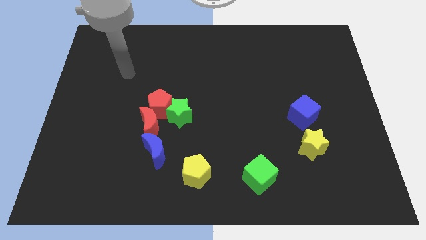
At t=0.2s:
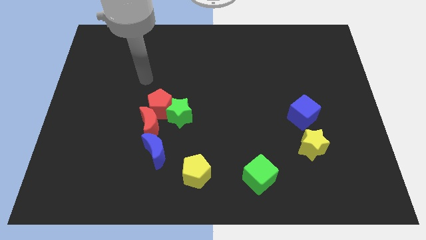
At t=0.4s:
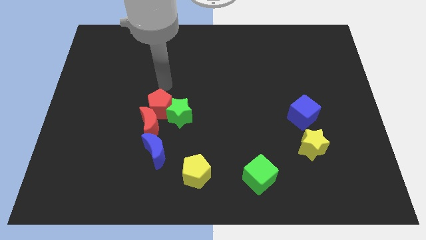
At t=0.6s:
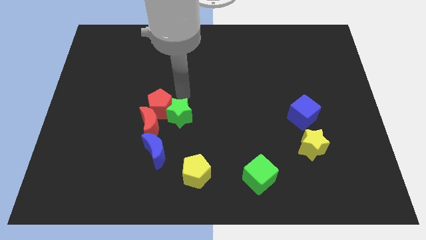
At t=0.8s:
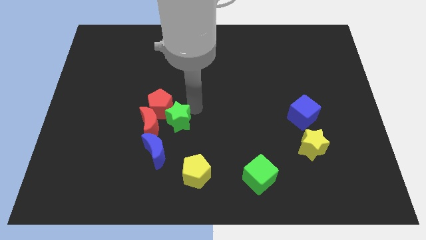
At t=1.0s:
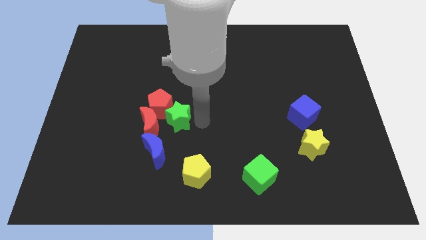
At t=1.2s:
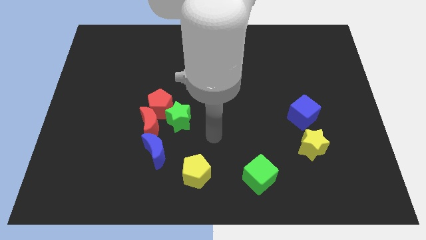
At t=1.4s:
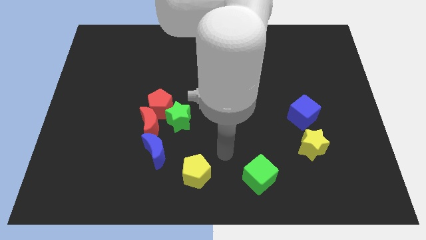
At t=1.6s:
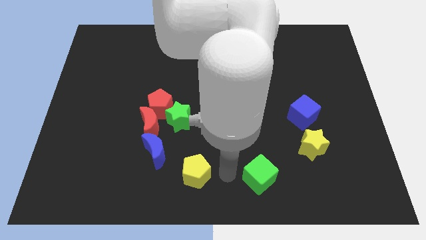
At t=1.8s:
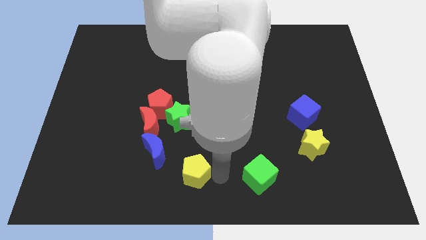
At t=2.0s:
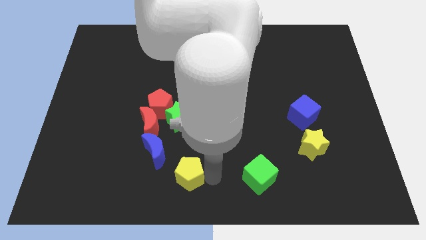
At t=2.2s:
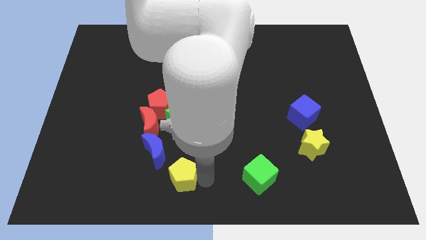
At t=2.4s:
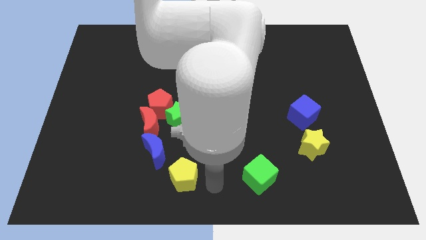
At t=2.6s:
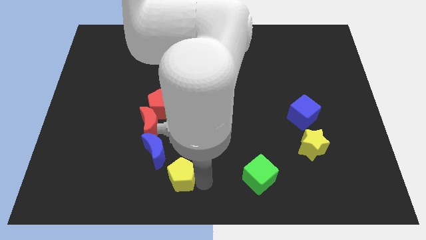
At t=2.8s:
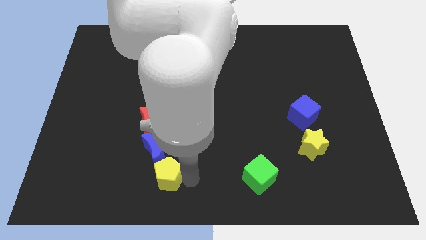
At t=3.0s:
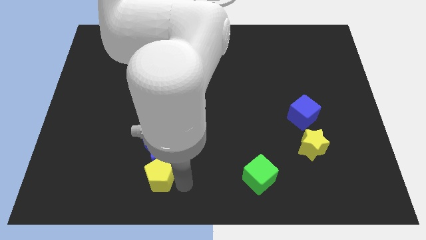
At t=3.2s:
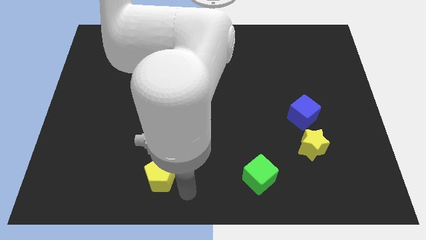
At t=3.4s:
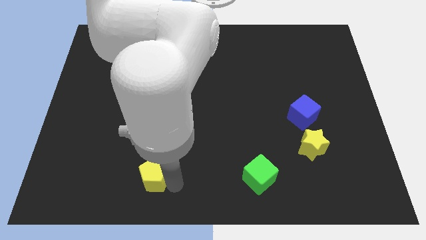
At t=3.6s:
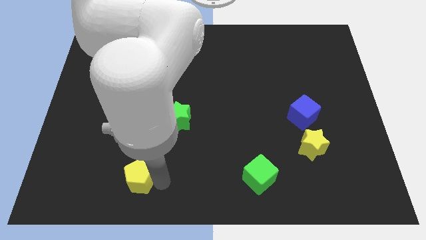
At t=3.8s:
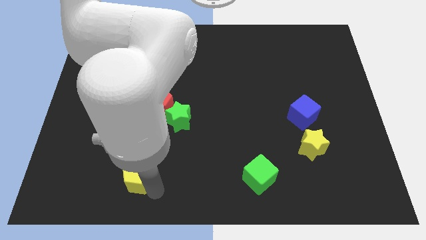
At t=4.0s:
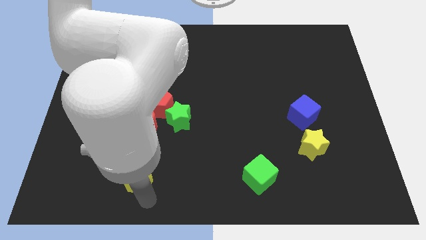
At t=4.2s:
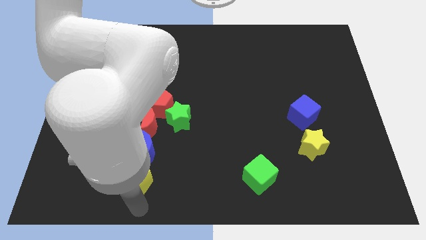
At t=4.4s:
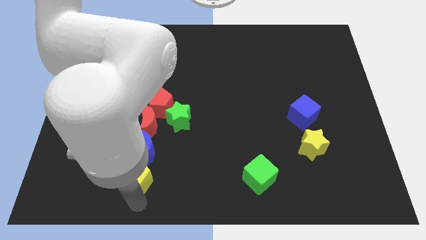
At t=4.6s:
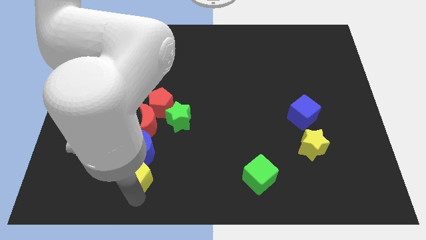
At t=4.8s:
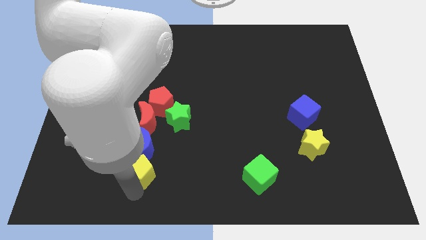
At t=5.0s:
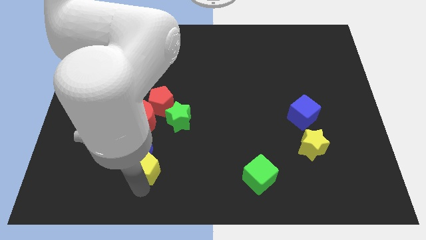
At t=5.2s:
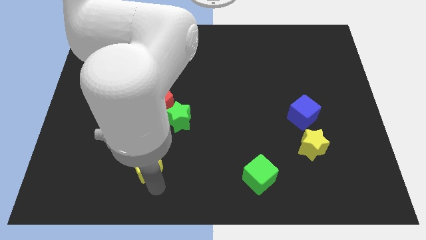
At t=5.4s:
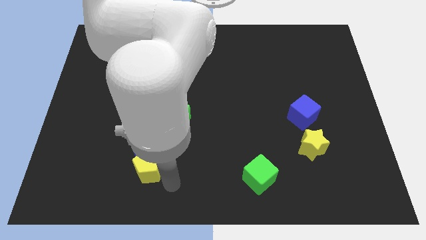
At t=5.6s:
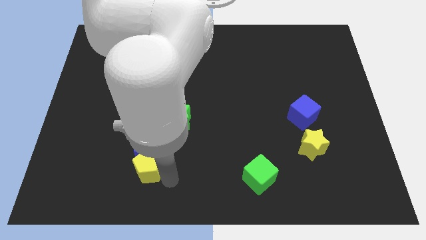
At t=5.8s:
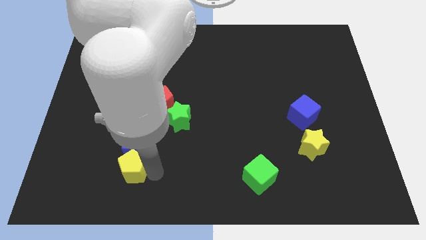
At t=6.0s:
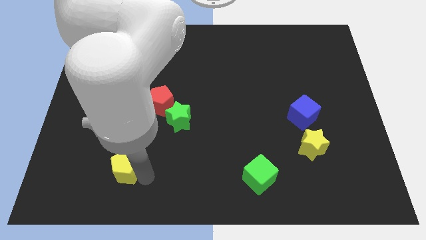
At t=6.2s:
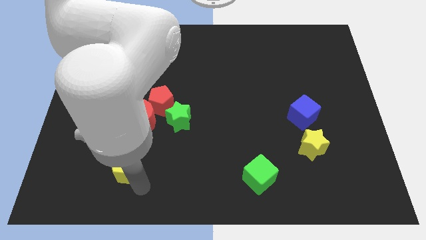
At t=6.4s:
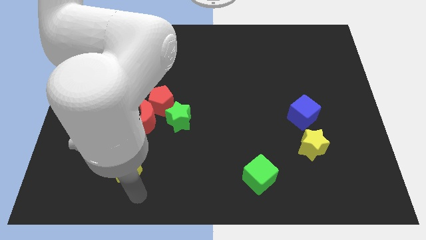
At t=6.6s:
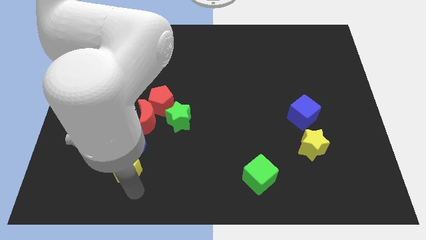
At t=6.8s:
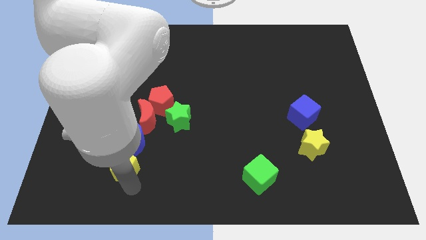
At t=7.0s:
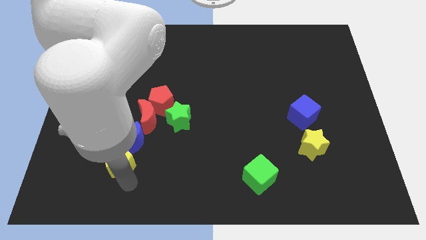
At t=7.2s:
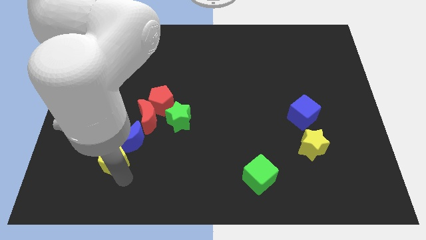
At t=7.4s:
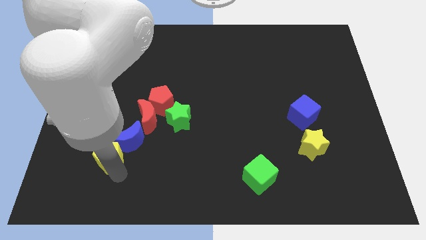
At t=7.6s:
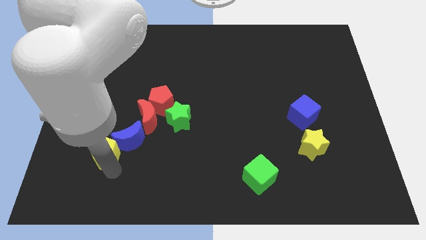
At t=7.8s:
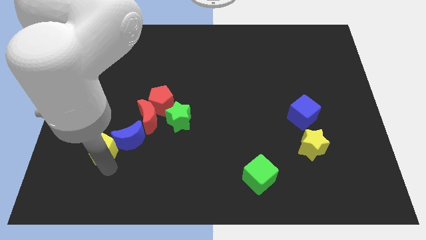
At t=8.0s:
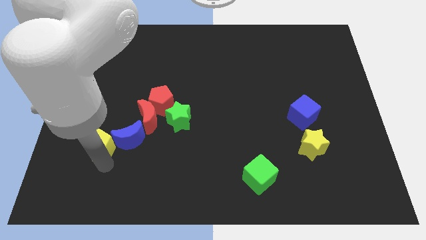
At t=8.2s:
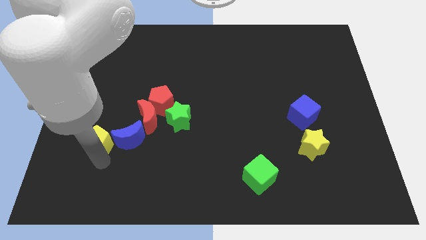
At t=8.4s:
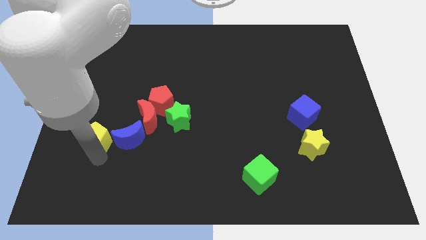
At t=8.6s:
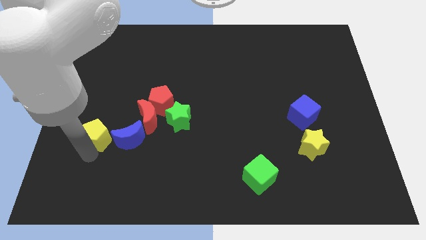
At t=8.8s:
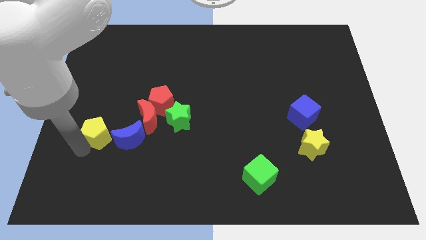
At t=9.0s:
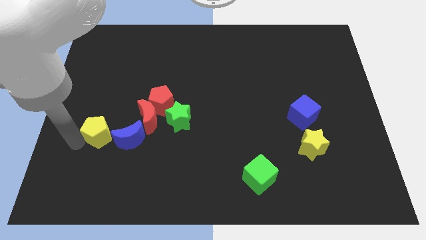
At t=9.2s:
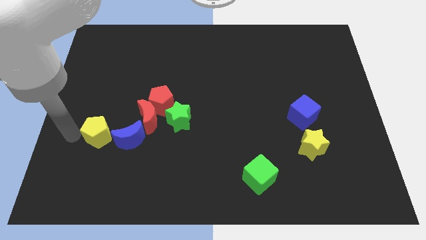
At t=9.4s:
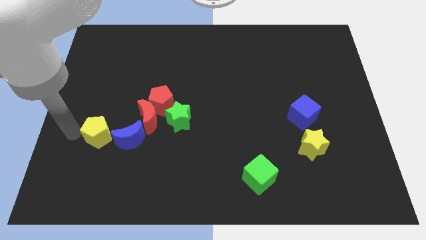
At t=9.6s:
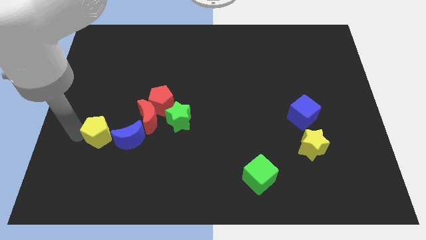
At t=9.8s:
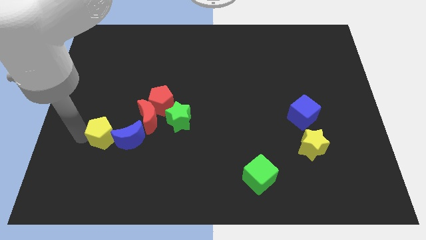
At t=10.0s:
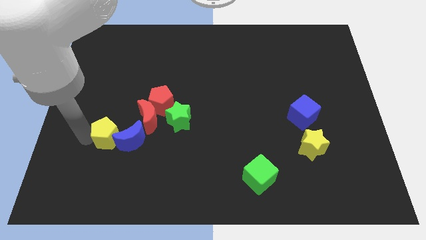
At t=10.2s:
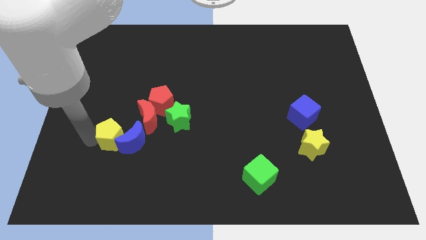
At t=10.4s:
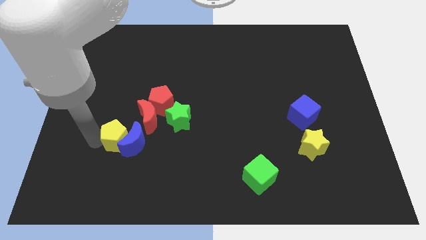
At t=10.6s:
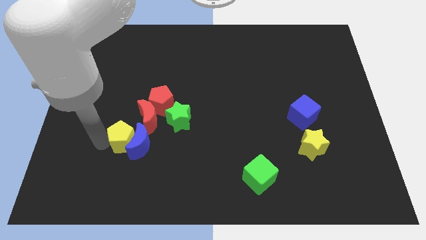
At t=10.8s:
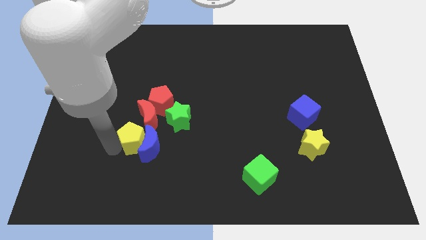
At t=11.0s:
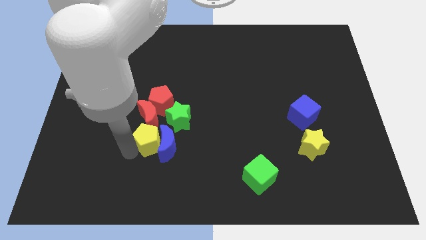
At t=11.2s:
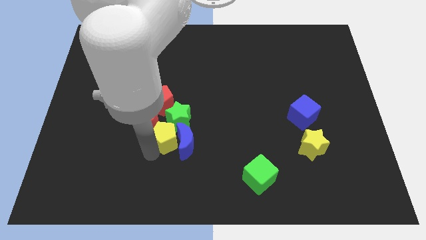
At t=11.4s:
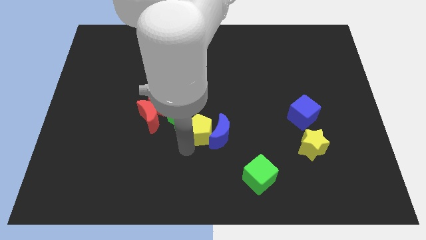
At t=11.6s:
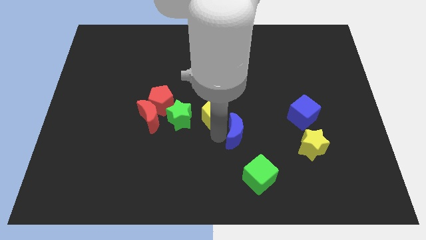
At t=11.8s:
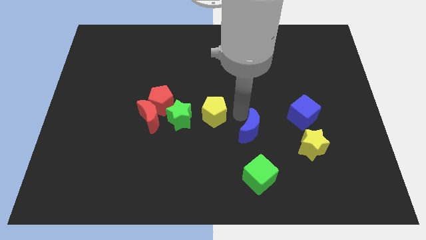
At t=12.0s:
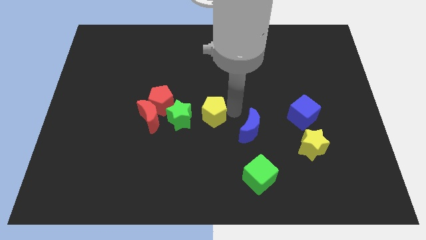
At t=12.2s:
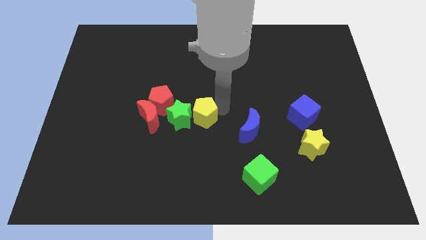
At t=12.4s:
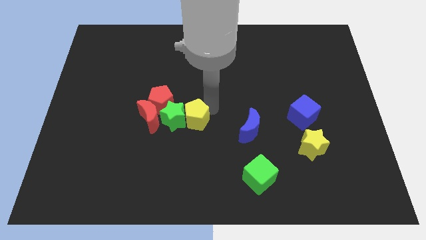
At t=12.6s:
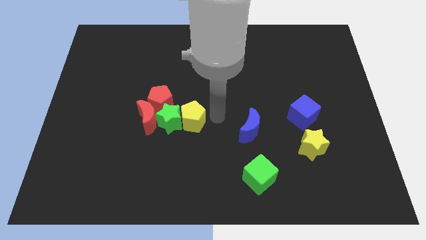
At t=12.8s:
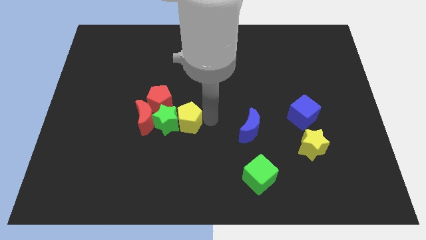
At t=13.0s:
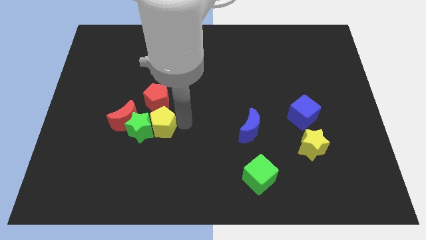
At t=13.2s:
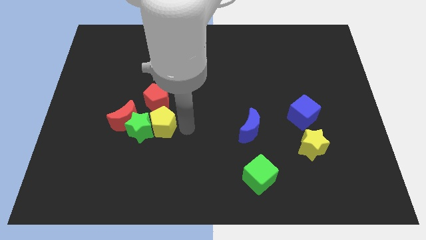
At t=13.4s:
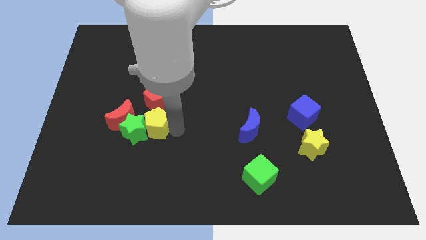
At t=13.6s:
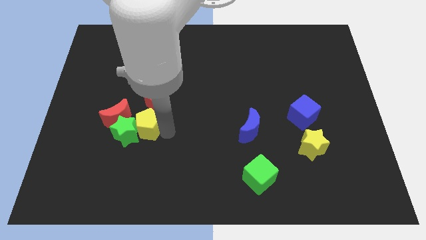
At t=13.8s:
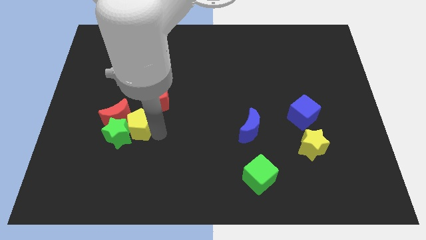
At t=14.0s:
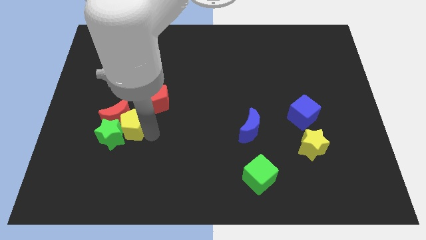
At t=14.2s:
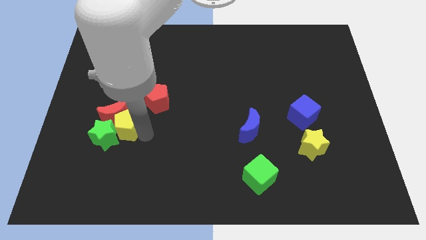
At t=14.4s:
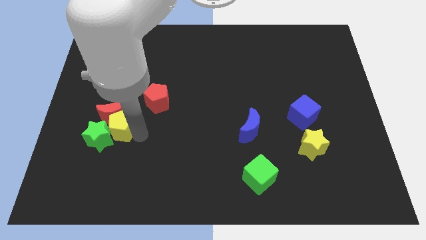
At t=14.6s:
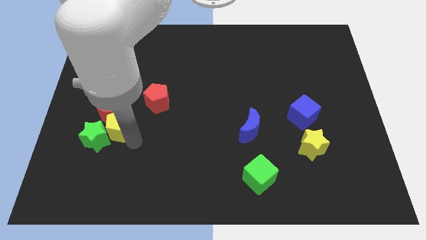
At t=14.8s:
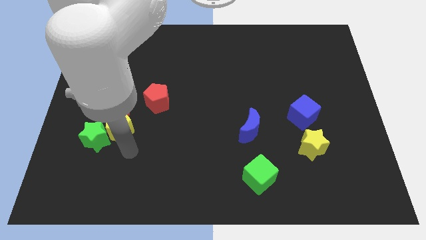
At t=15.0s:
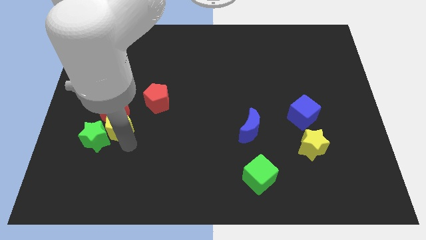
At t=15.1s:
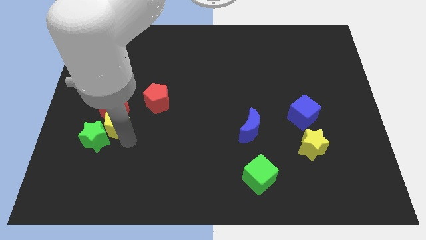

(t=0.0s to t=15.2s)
slide the yellow pentagon upwards and then to the left

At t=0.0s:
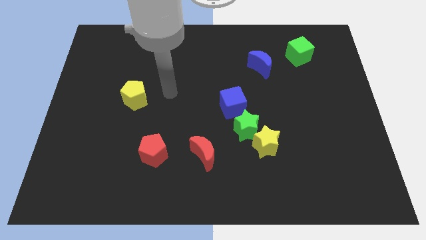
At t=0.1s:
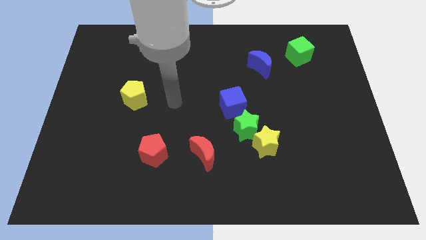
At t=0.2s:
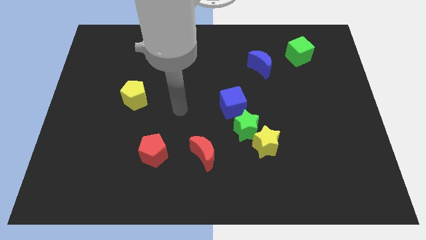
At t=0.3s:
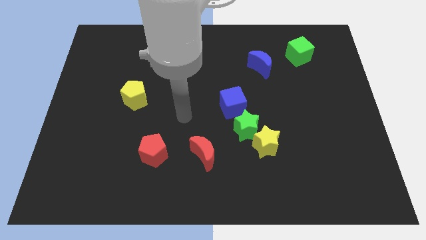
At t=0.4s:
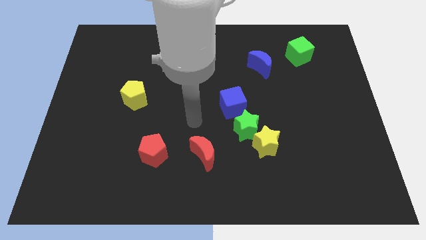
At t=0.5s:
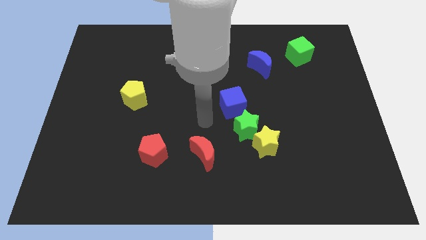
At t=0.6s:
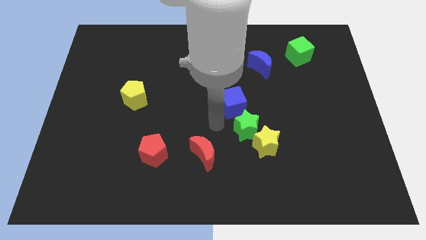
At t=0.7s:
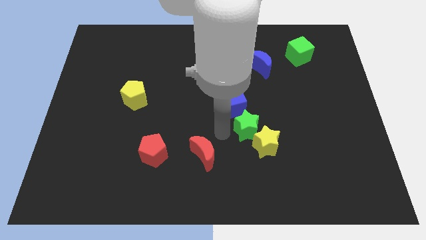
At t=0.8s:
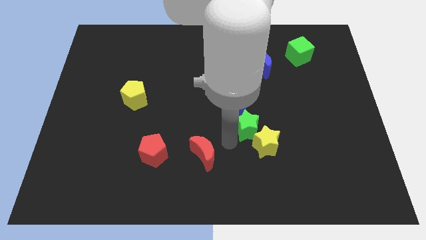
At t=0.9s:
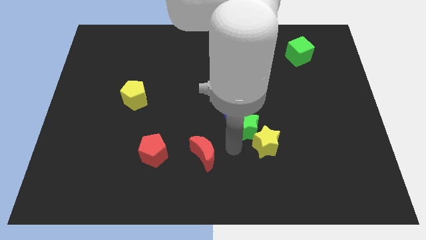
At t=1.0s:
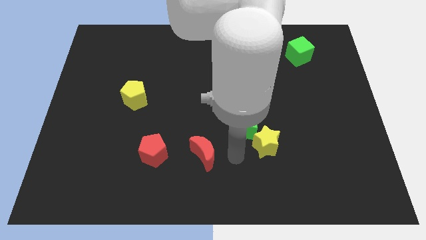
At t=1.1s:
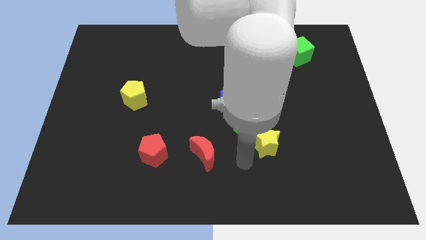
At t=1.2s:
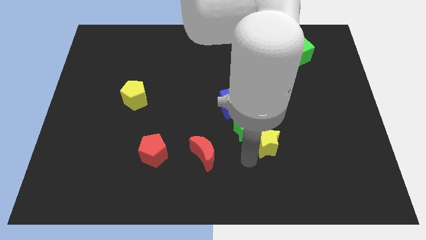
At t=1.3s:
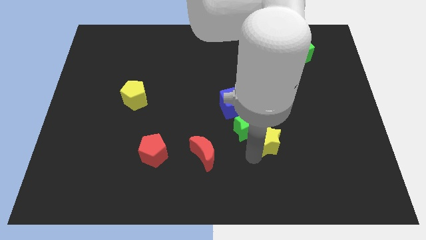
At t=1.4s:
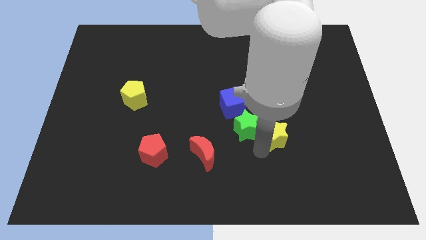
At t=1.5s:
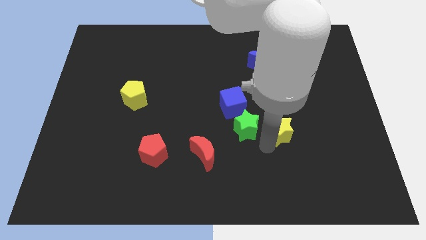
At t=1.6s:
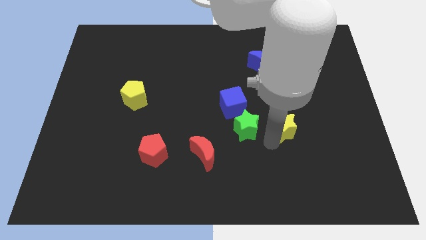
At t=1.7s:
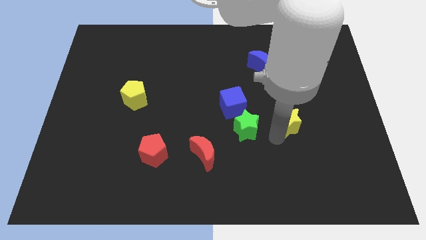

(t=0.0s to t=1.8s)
move the yellow star a little bit diagonally upwards and right
